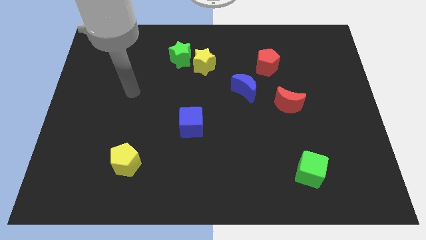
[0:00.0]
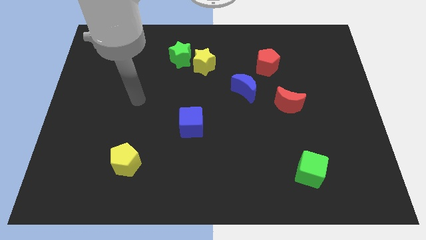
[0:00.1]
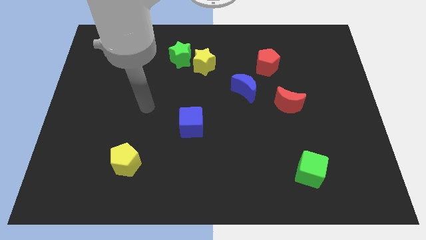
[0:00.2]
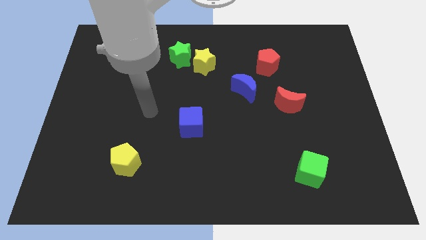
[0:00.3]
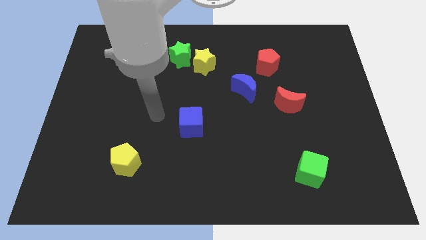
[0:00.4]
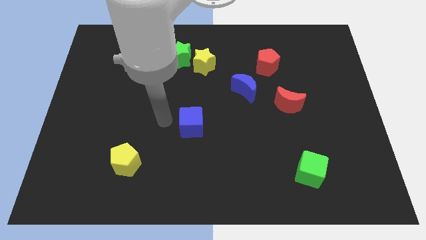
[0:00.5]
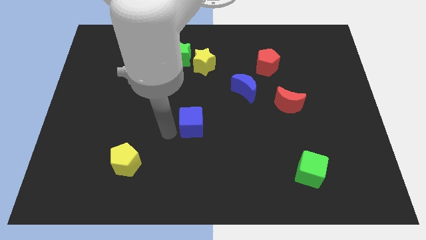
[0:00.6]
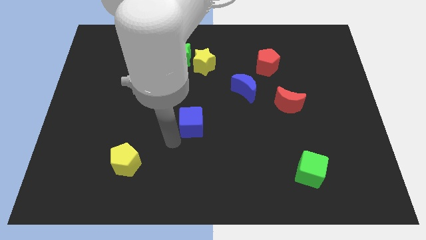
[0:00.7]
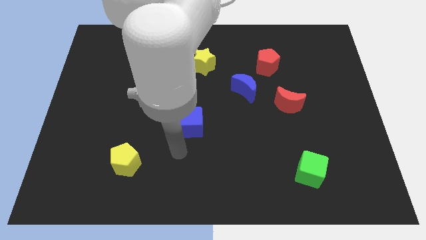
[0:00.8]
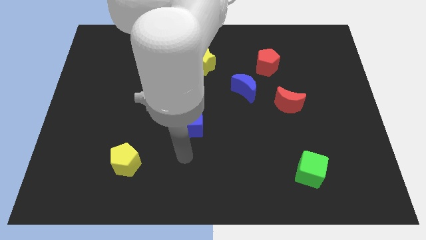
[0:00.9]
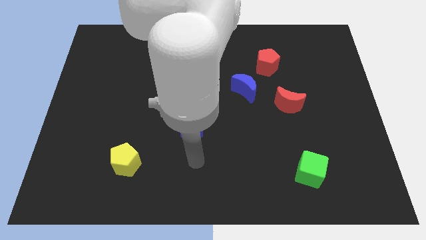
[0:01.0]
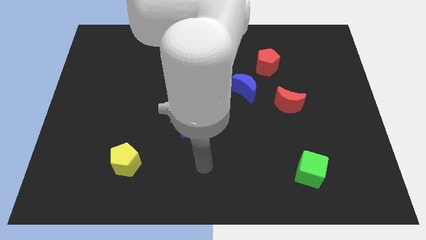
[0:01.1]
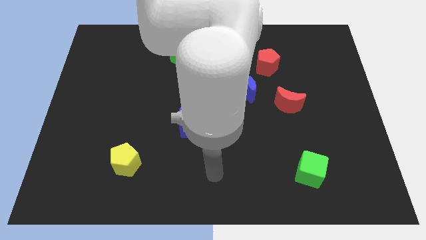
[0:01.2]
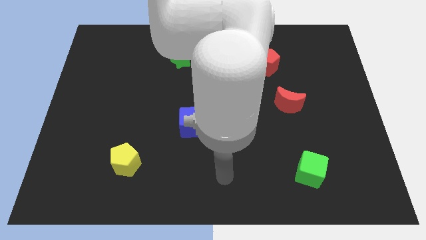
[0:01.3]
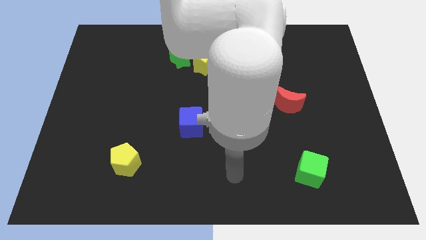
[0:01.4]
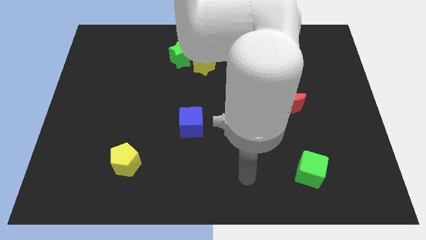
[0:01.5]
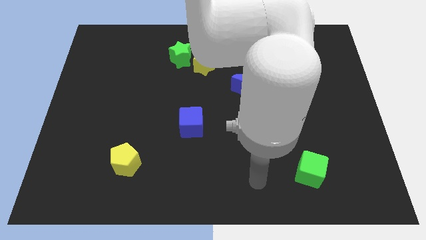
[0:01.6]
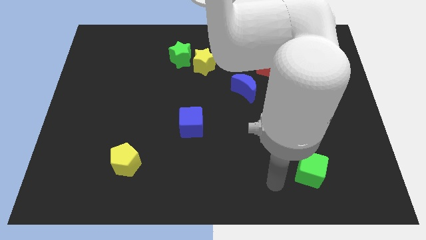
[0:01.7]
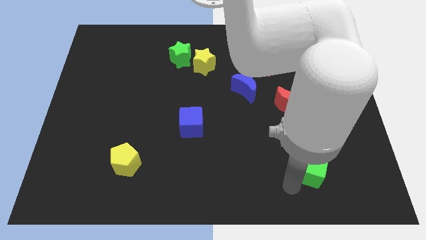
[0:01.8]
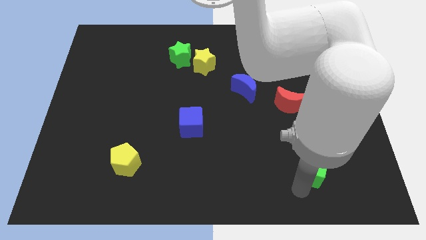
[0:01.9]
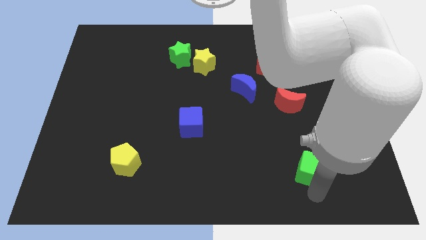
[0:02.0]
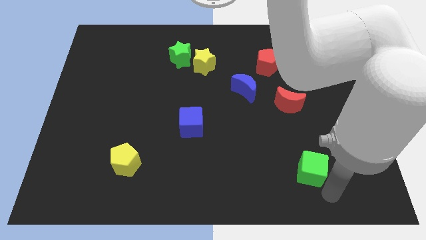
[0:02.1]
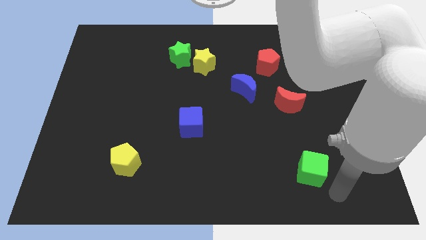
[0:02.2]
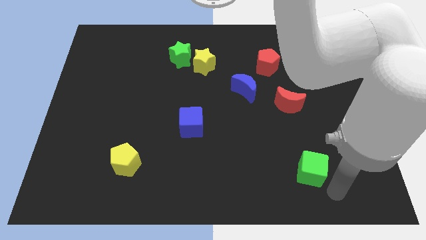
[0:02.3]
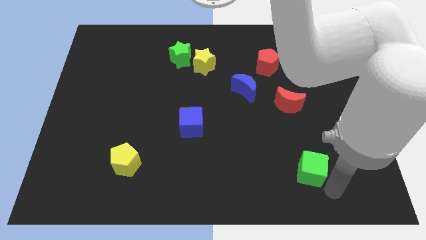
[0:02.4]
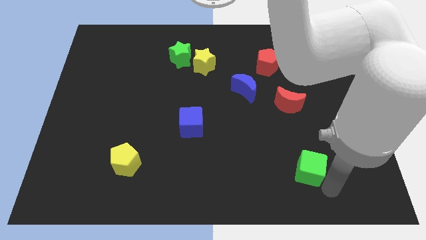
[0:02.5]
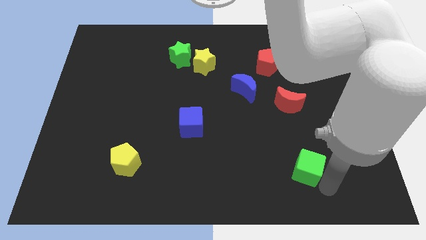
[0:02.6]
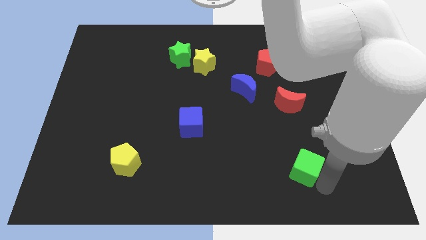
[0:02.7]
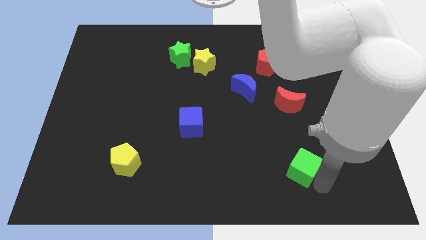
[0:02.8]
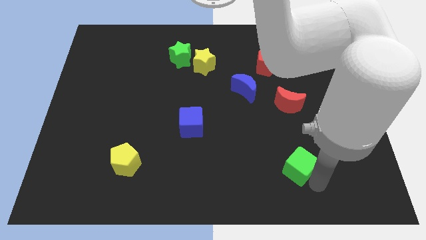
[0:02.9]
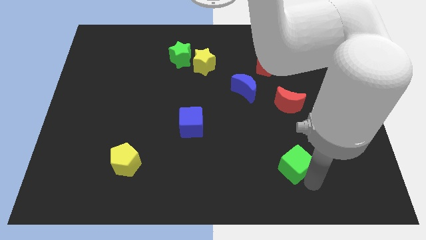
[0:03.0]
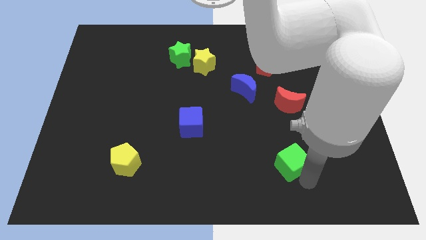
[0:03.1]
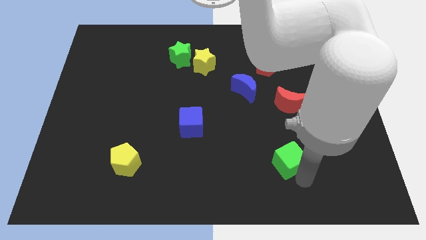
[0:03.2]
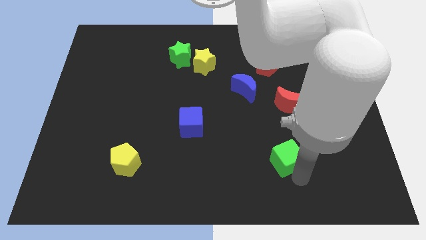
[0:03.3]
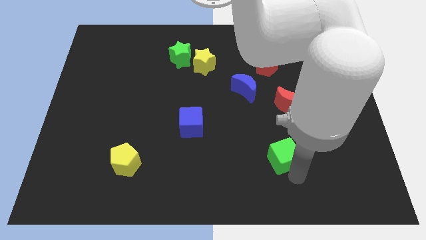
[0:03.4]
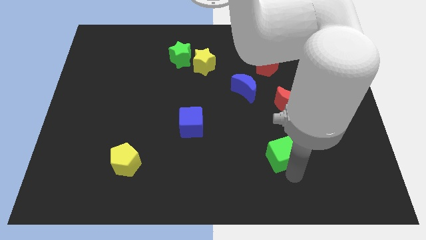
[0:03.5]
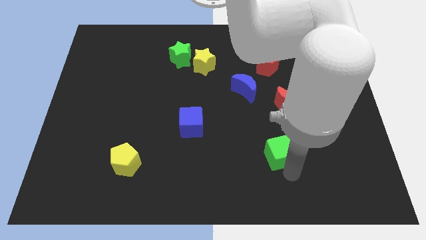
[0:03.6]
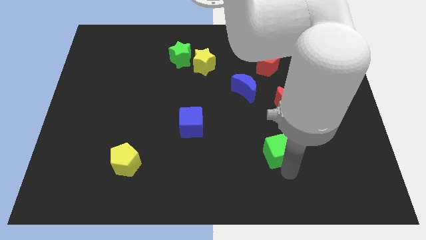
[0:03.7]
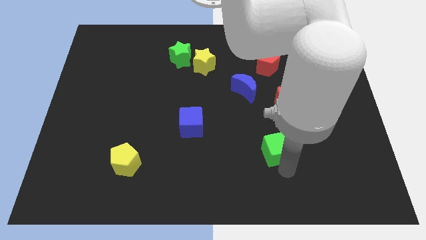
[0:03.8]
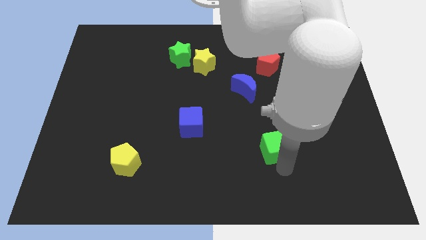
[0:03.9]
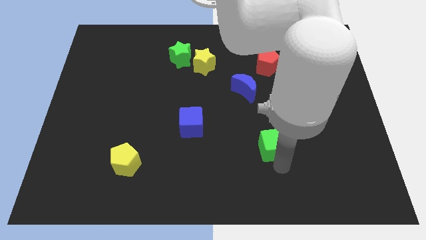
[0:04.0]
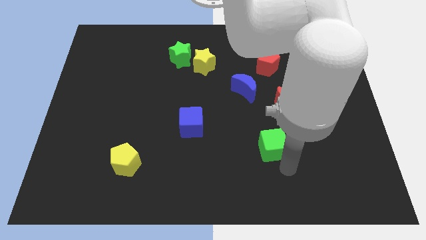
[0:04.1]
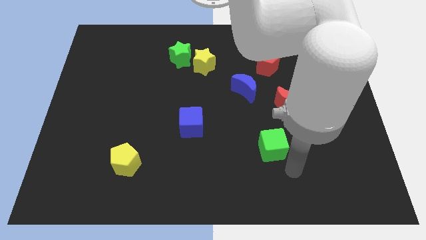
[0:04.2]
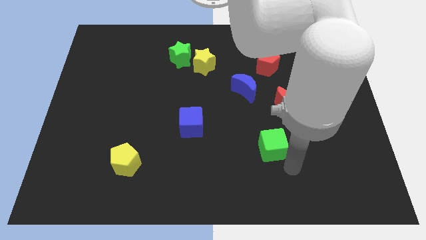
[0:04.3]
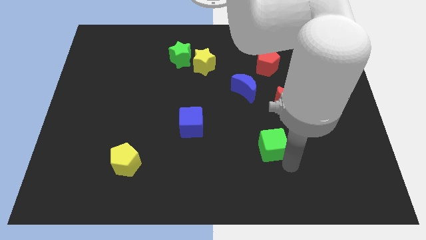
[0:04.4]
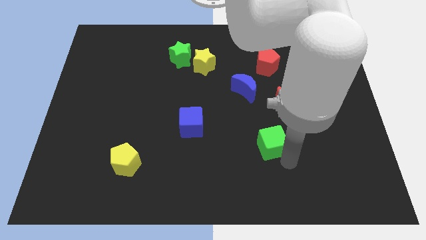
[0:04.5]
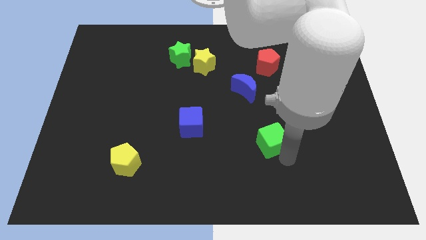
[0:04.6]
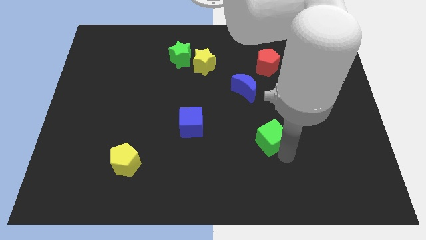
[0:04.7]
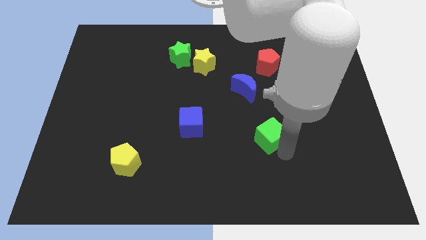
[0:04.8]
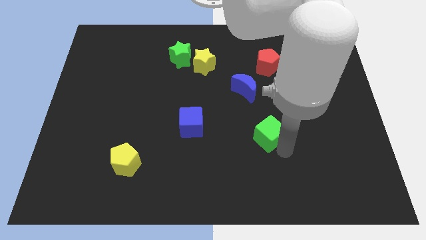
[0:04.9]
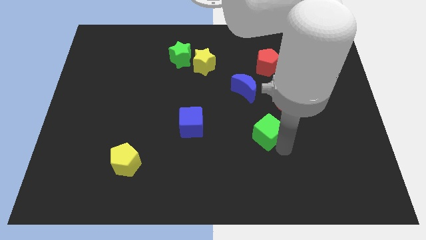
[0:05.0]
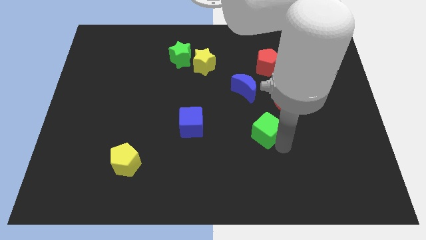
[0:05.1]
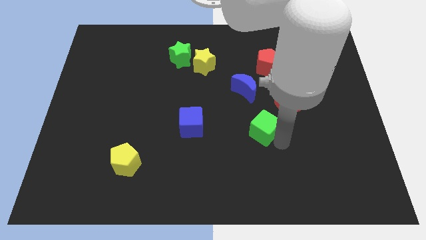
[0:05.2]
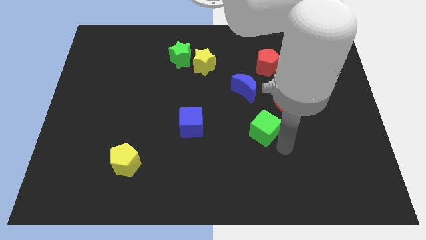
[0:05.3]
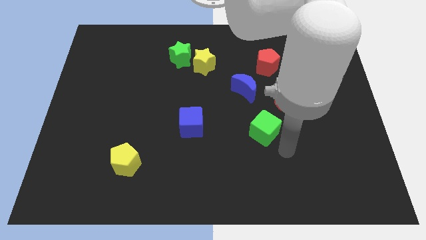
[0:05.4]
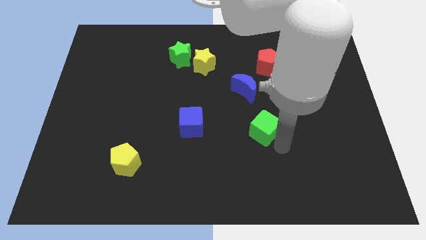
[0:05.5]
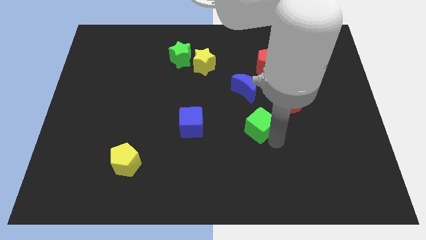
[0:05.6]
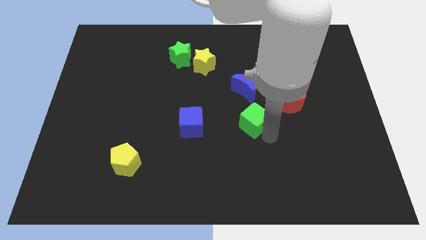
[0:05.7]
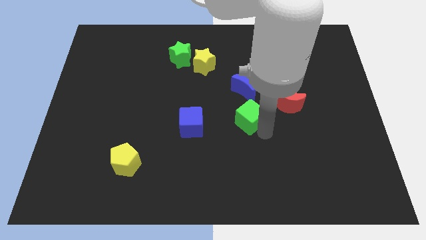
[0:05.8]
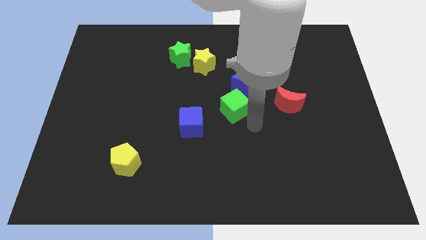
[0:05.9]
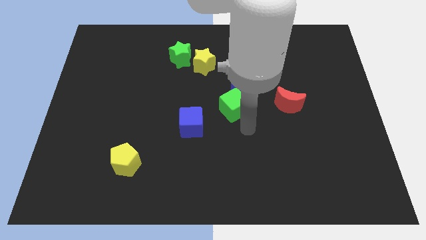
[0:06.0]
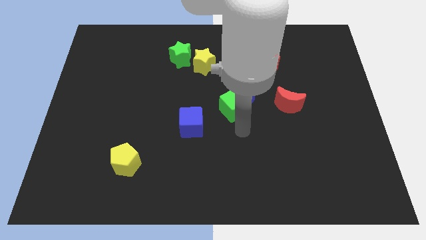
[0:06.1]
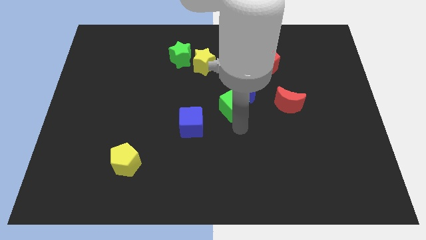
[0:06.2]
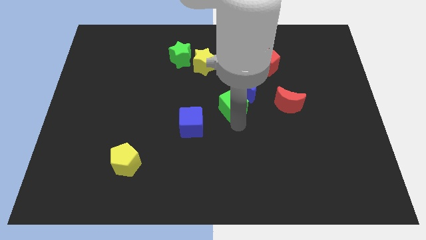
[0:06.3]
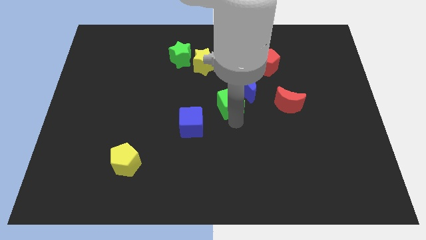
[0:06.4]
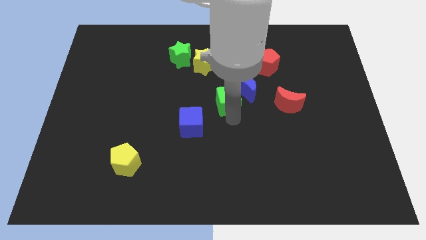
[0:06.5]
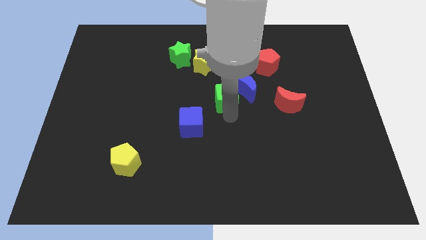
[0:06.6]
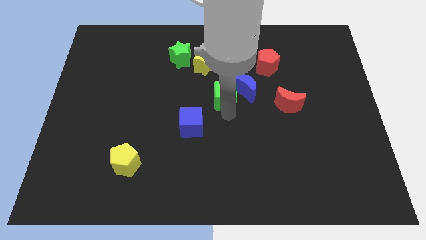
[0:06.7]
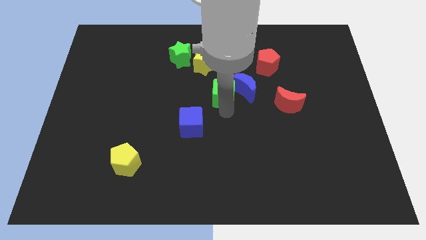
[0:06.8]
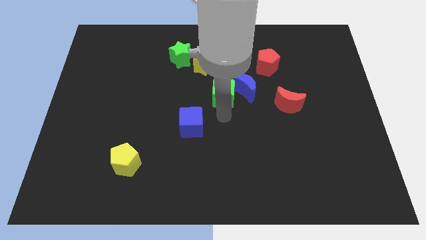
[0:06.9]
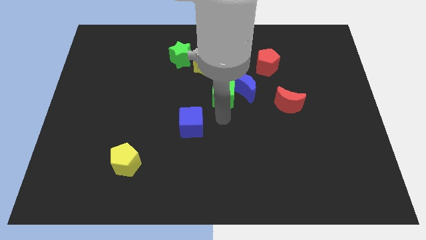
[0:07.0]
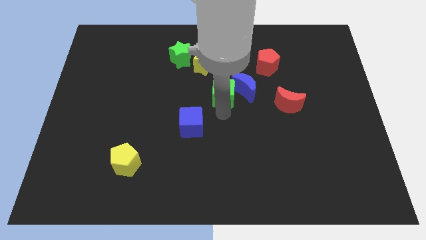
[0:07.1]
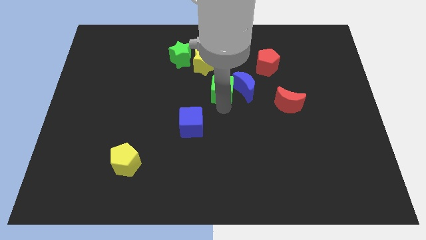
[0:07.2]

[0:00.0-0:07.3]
push the green cube to the bottom right side of the yellow star

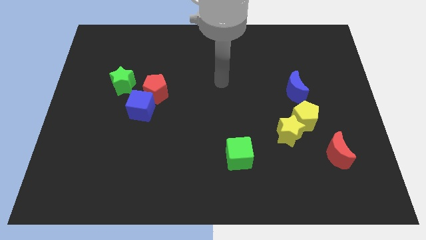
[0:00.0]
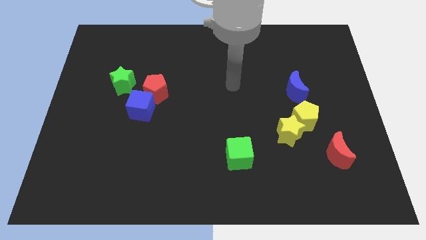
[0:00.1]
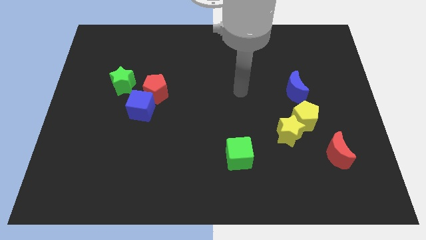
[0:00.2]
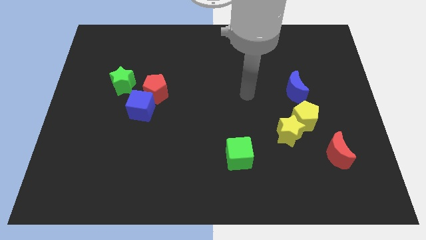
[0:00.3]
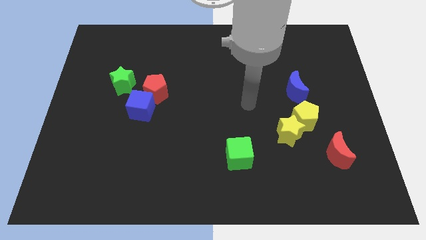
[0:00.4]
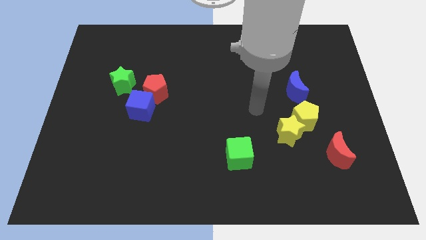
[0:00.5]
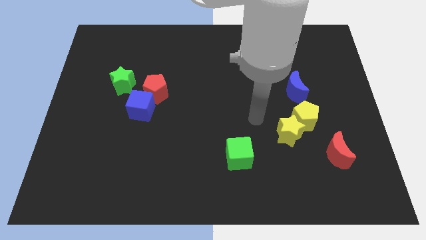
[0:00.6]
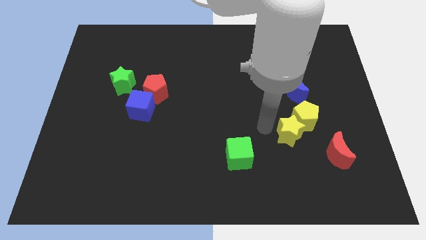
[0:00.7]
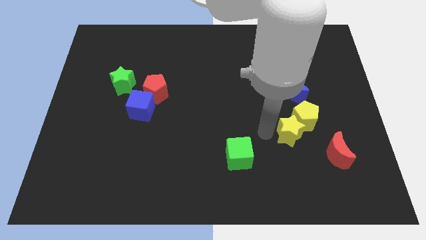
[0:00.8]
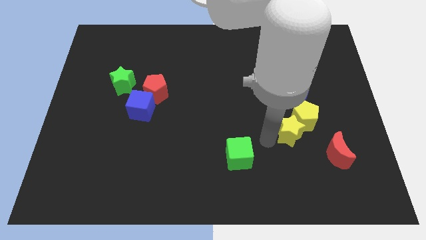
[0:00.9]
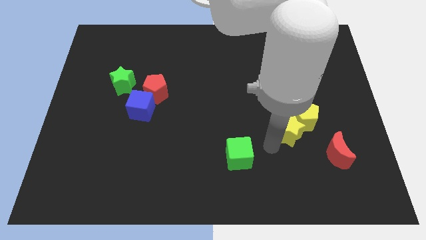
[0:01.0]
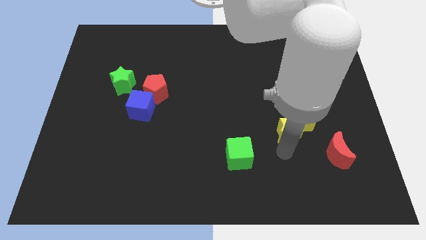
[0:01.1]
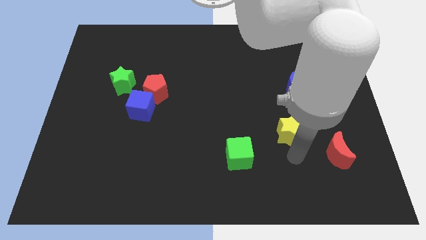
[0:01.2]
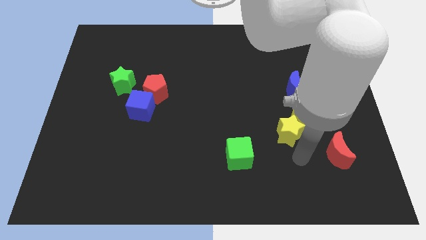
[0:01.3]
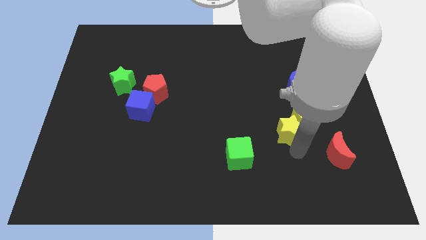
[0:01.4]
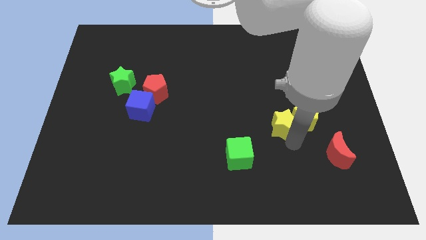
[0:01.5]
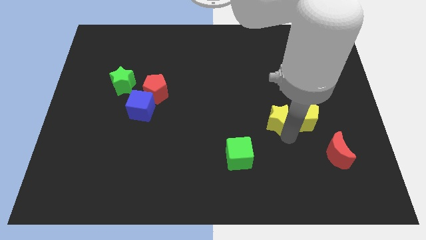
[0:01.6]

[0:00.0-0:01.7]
slide the yellow star to the bottom left of the blue moon
